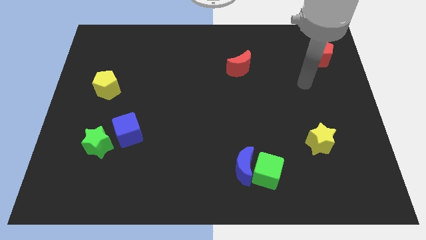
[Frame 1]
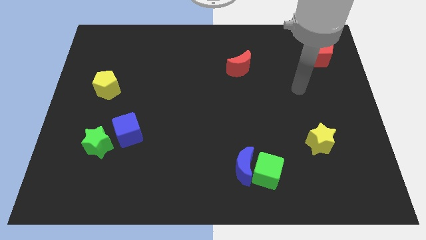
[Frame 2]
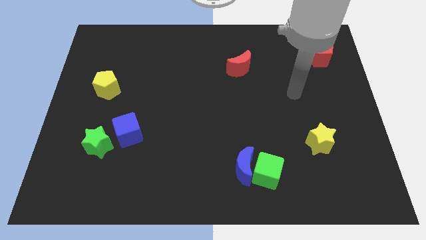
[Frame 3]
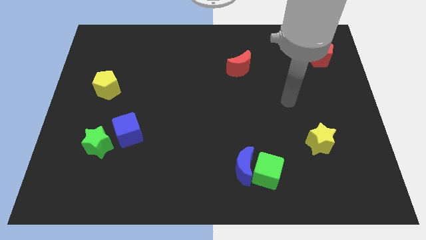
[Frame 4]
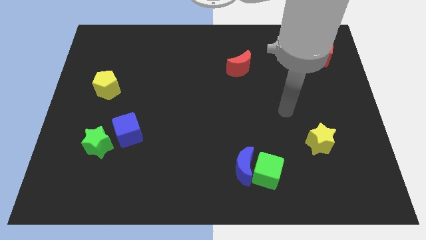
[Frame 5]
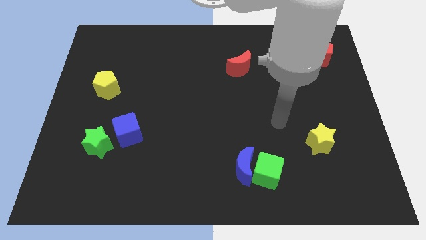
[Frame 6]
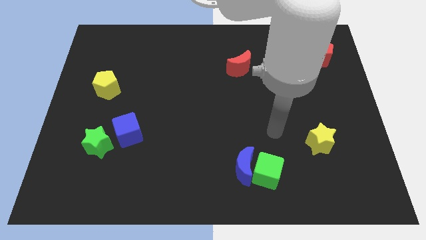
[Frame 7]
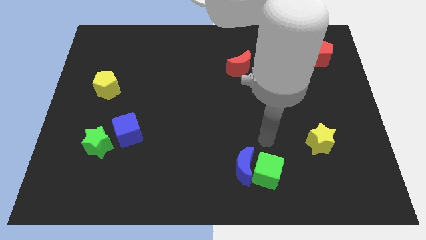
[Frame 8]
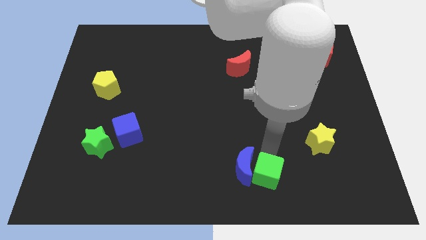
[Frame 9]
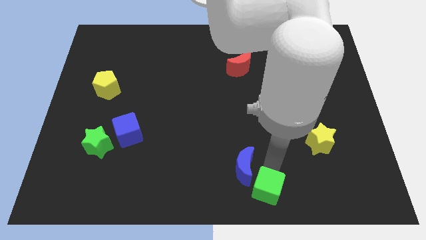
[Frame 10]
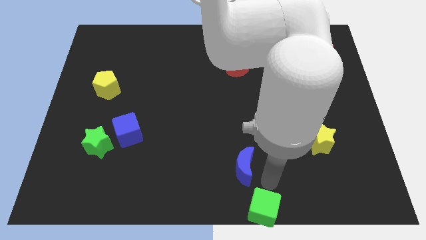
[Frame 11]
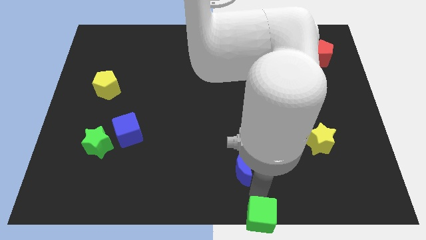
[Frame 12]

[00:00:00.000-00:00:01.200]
separate the blue moon from the green cube

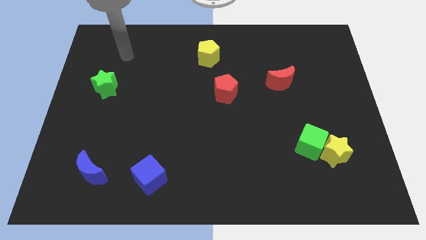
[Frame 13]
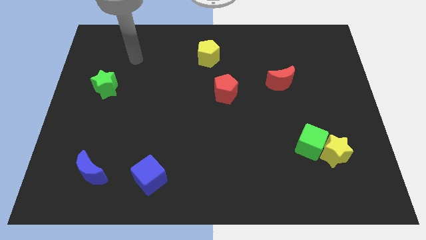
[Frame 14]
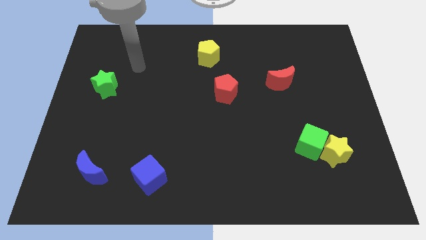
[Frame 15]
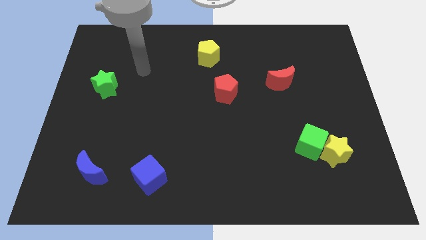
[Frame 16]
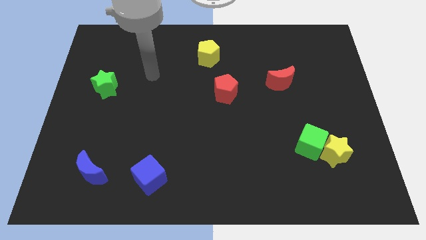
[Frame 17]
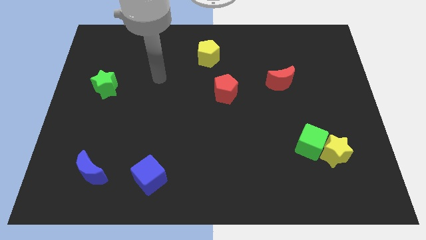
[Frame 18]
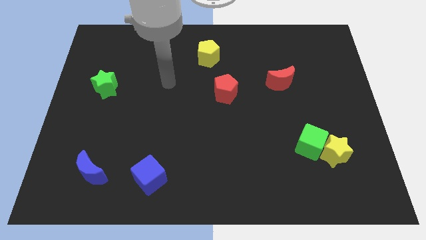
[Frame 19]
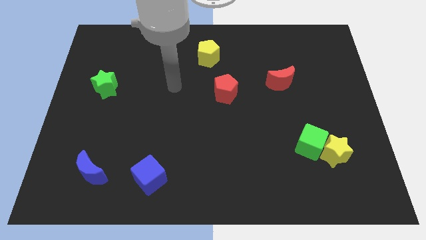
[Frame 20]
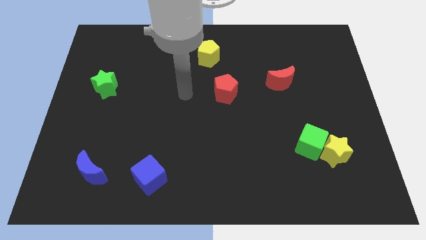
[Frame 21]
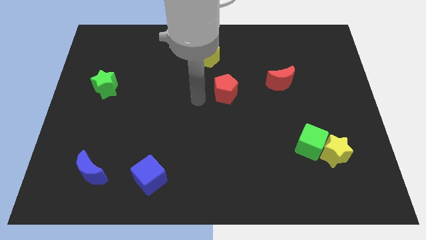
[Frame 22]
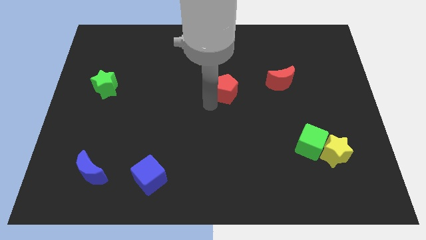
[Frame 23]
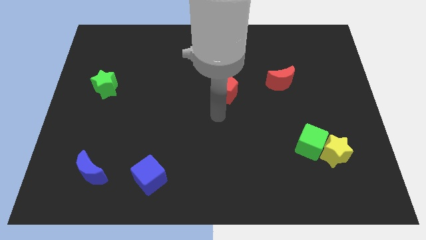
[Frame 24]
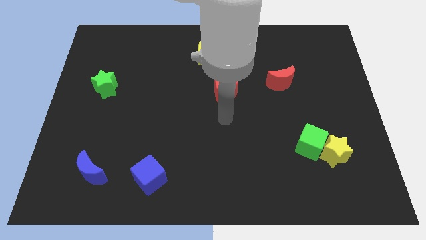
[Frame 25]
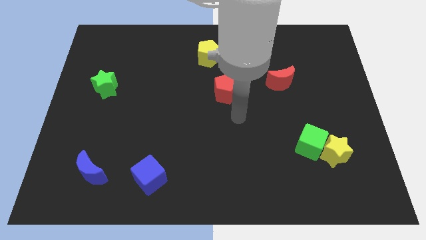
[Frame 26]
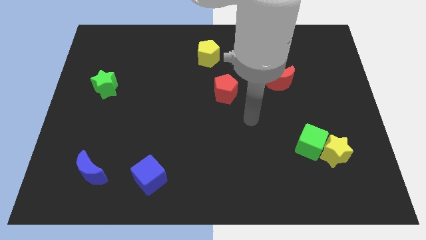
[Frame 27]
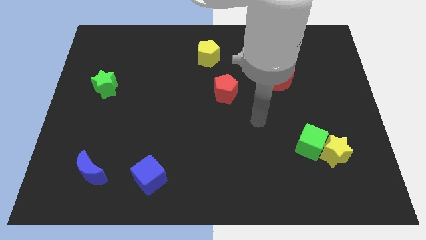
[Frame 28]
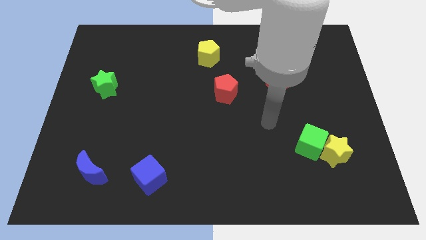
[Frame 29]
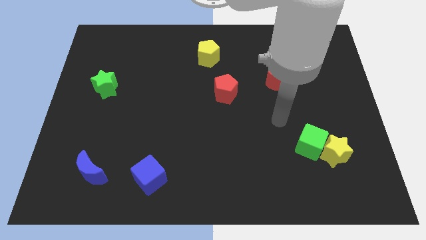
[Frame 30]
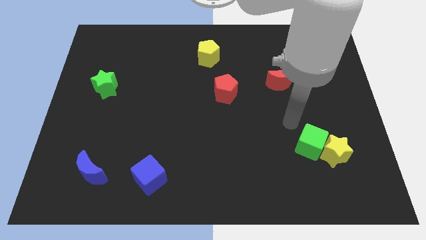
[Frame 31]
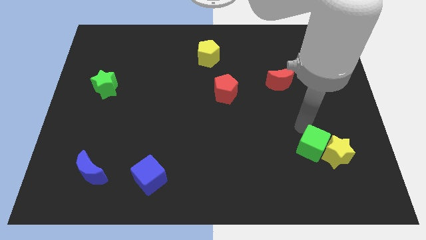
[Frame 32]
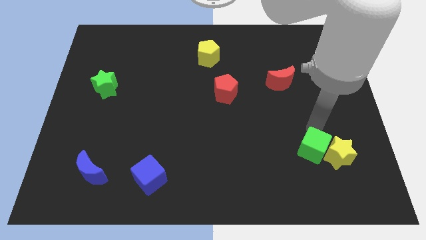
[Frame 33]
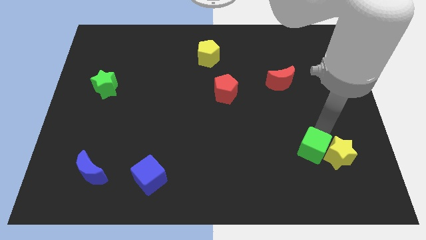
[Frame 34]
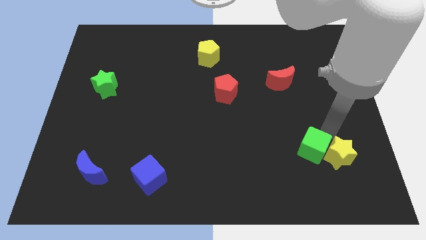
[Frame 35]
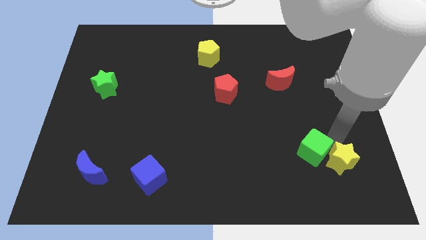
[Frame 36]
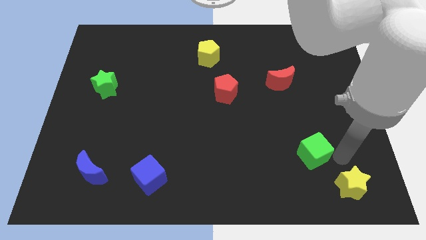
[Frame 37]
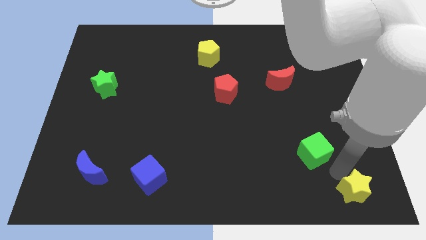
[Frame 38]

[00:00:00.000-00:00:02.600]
separate the green cube from the yellow star

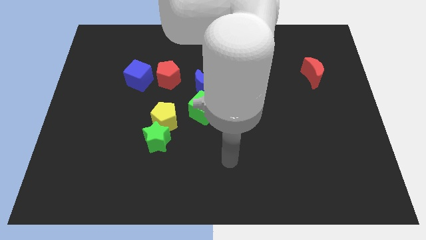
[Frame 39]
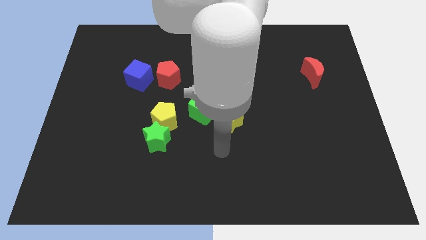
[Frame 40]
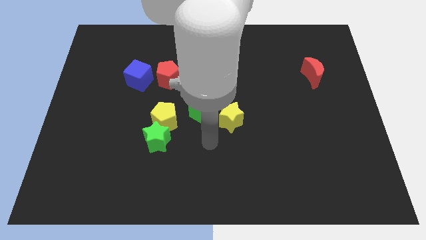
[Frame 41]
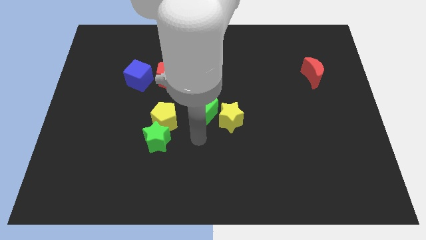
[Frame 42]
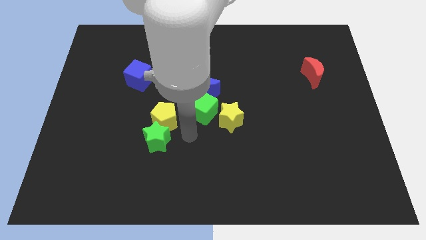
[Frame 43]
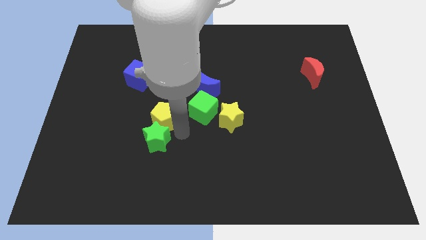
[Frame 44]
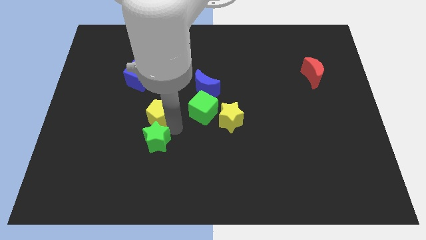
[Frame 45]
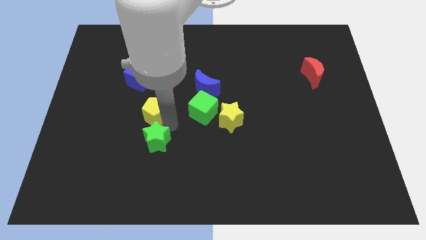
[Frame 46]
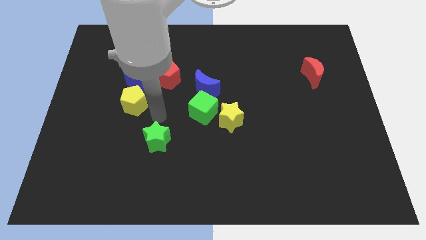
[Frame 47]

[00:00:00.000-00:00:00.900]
separate the green star from the yellow pentagon

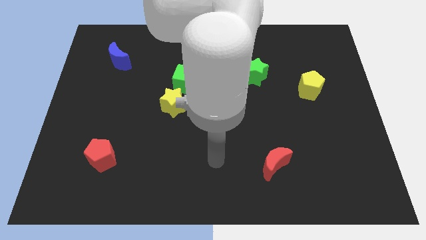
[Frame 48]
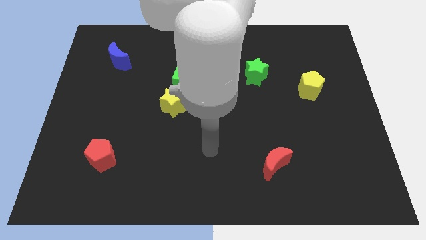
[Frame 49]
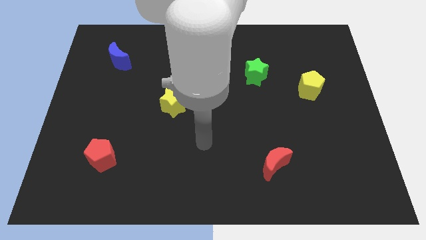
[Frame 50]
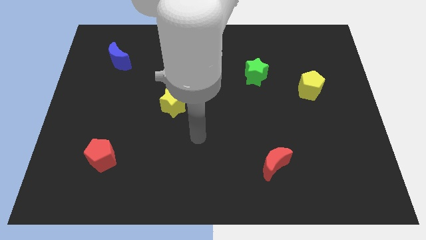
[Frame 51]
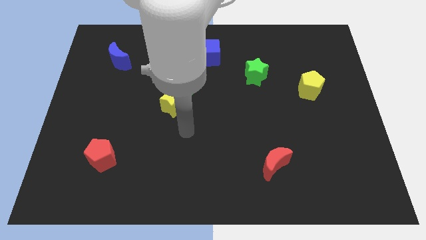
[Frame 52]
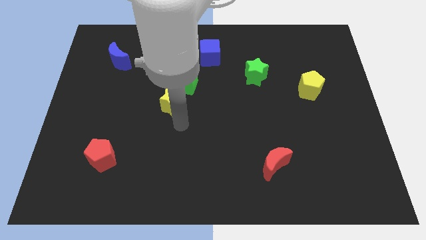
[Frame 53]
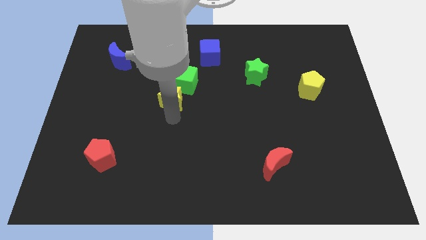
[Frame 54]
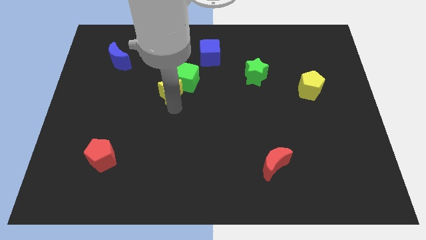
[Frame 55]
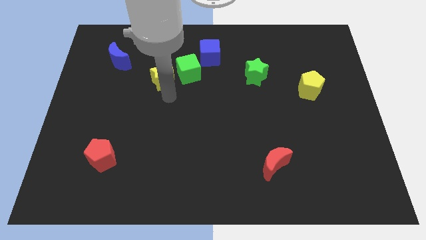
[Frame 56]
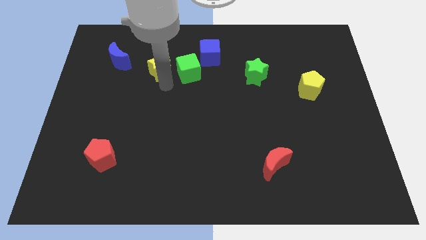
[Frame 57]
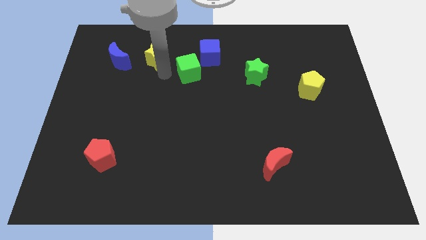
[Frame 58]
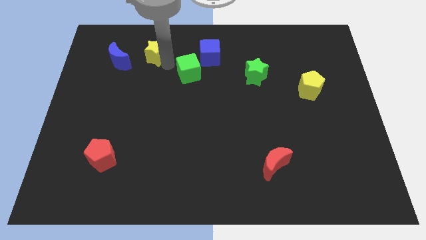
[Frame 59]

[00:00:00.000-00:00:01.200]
pull the green cube apart from the yellow star

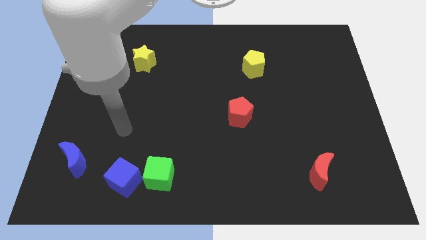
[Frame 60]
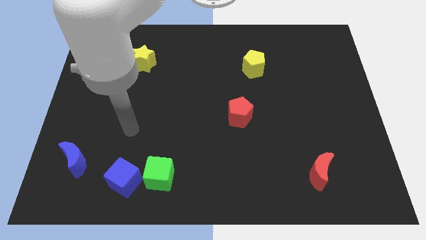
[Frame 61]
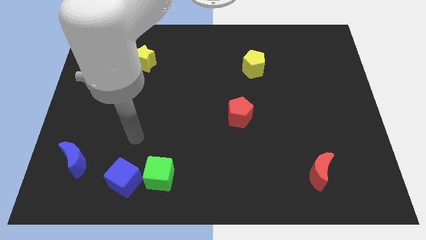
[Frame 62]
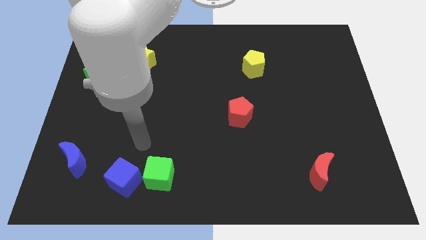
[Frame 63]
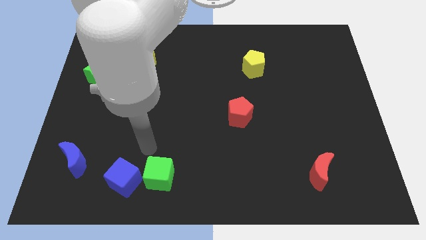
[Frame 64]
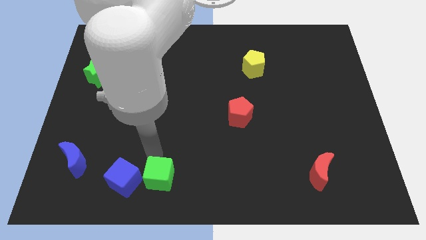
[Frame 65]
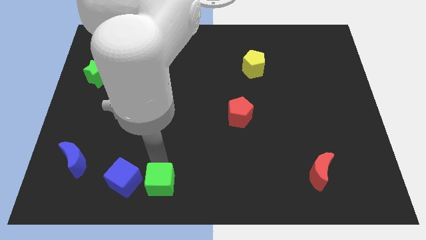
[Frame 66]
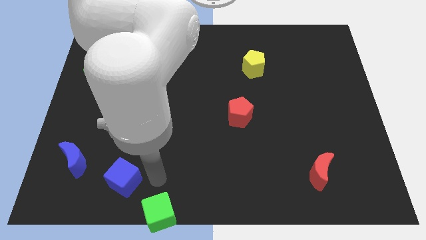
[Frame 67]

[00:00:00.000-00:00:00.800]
move the blue cube away from the green cube

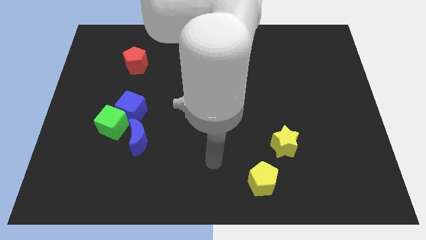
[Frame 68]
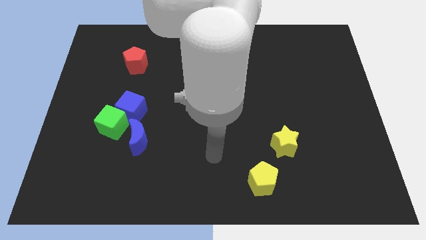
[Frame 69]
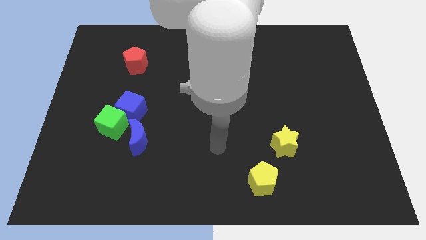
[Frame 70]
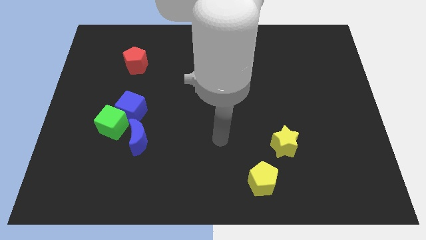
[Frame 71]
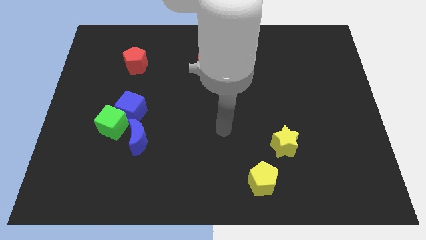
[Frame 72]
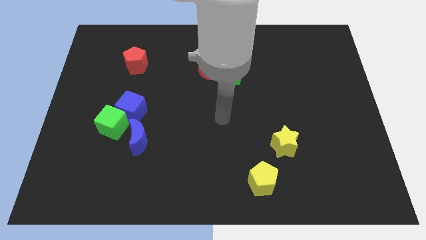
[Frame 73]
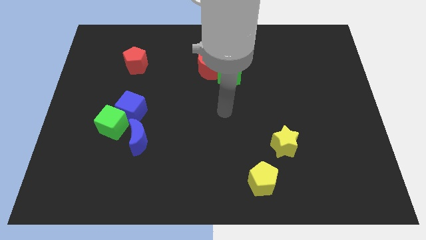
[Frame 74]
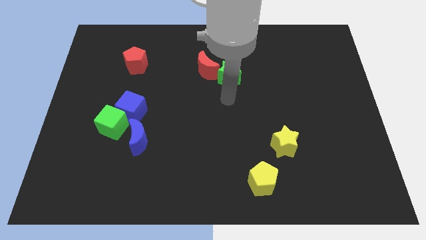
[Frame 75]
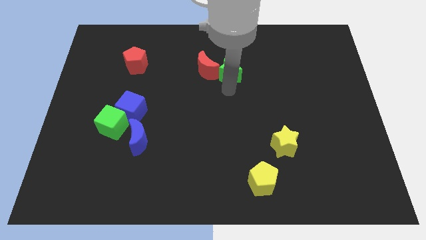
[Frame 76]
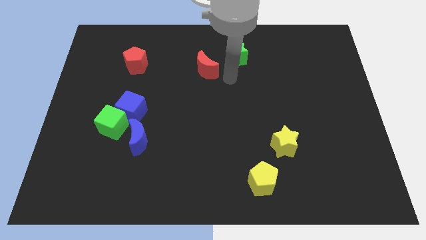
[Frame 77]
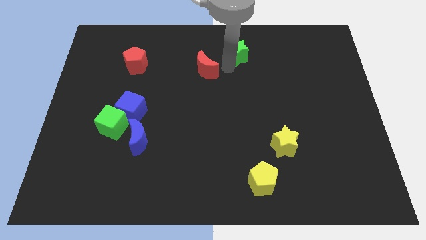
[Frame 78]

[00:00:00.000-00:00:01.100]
move the red moon away from the green star

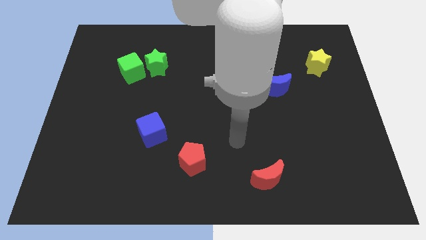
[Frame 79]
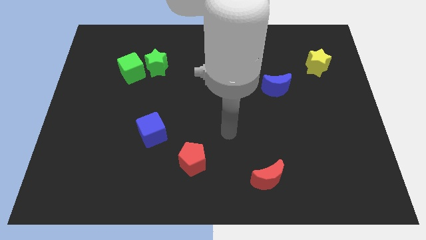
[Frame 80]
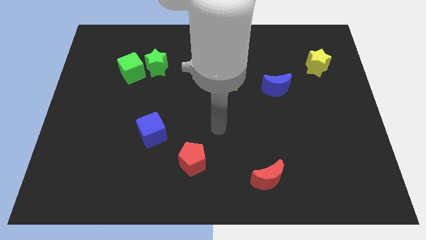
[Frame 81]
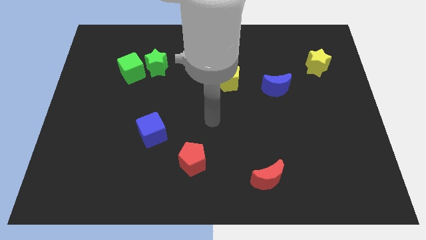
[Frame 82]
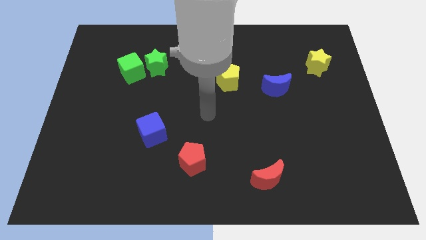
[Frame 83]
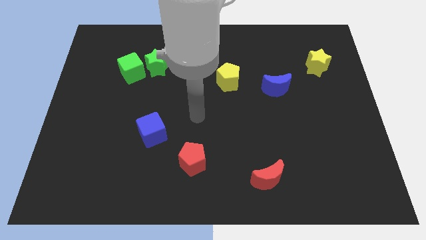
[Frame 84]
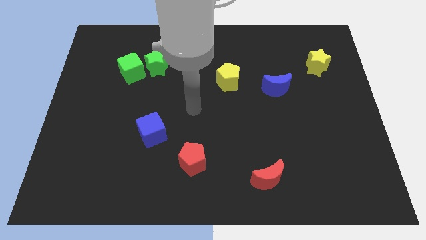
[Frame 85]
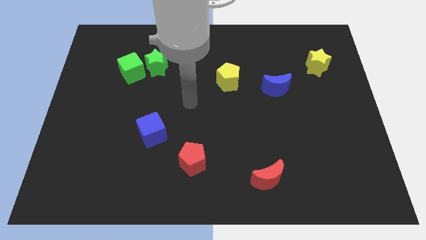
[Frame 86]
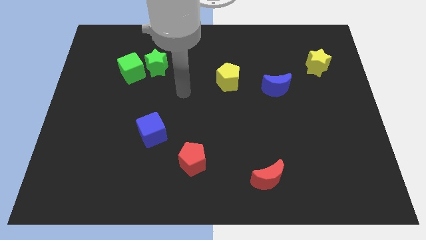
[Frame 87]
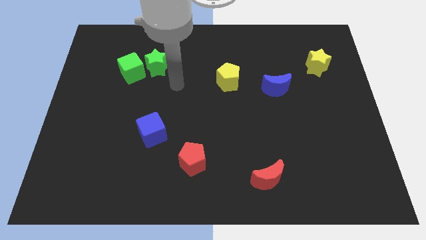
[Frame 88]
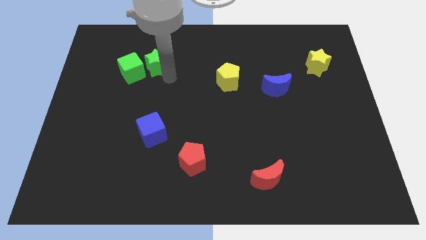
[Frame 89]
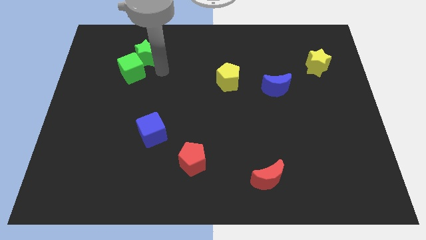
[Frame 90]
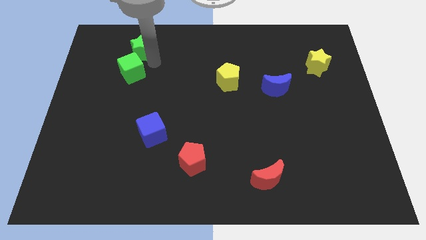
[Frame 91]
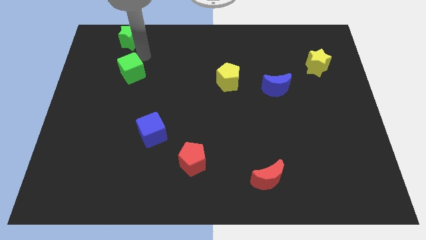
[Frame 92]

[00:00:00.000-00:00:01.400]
move the green cube away from the green star

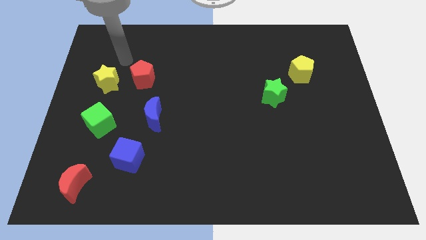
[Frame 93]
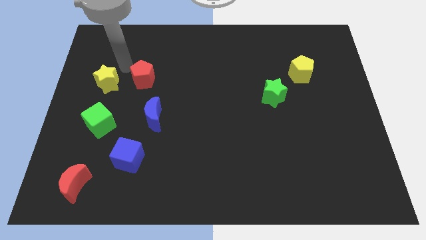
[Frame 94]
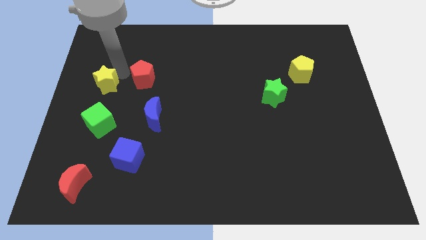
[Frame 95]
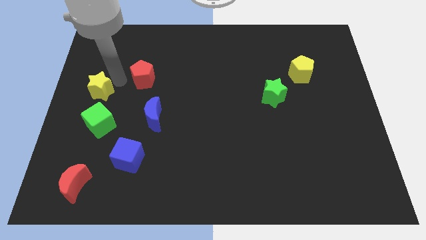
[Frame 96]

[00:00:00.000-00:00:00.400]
separate the red pentagon from the yellow star
